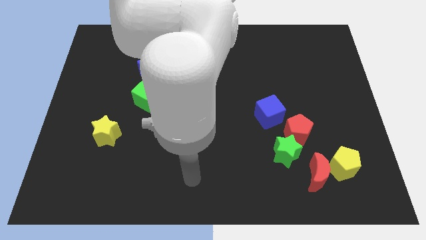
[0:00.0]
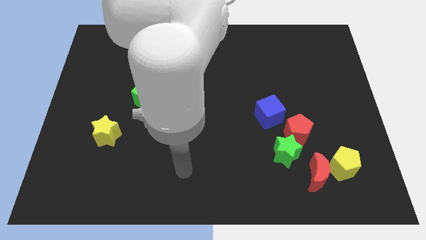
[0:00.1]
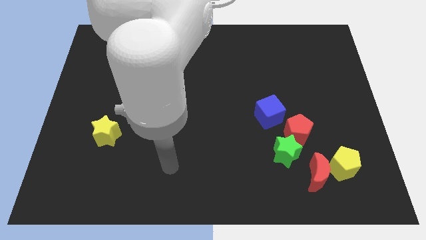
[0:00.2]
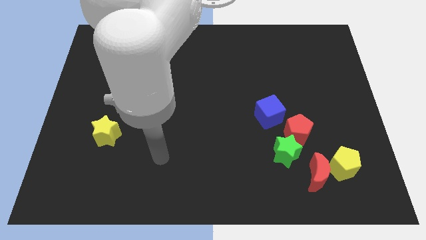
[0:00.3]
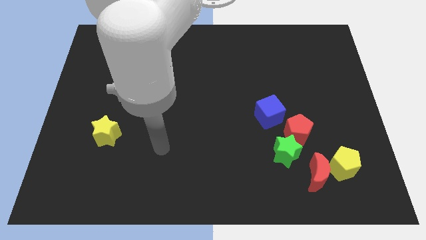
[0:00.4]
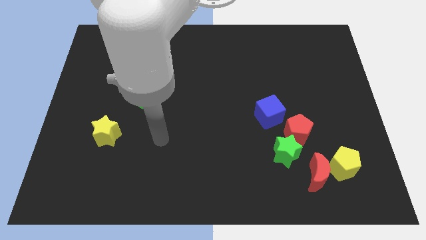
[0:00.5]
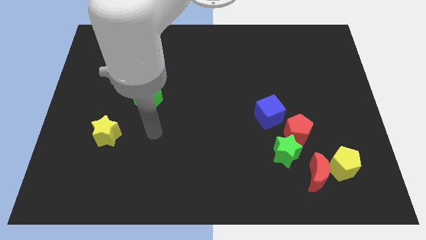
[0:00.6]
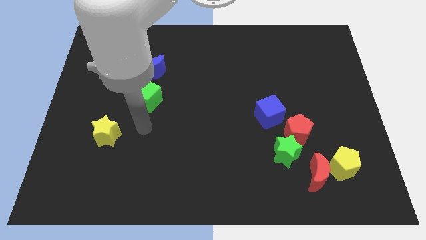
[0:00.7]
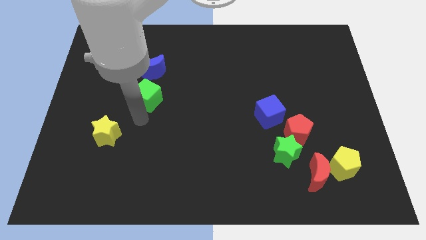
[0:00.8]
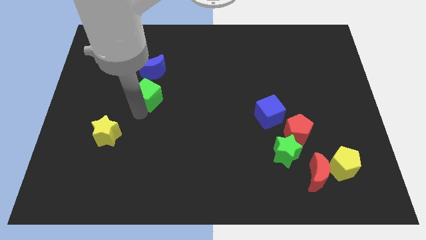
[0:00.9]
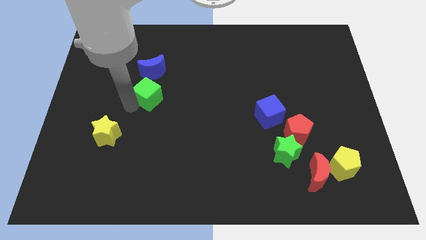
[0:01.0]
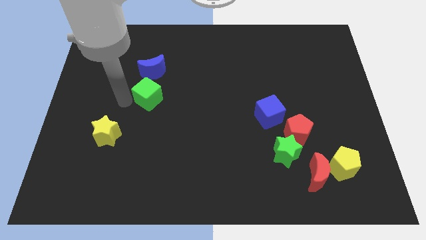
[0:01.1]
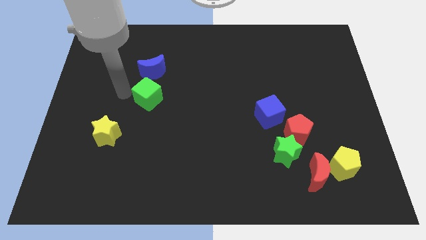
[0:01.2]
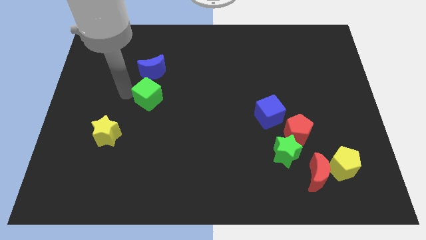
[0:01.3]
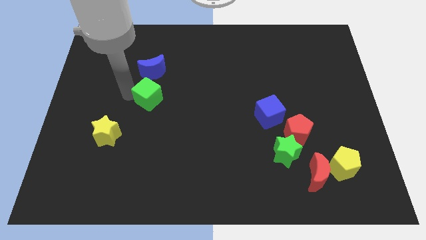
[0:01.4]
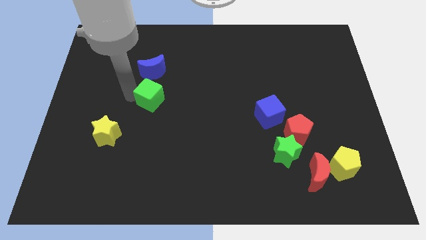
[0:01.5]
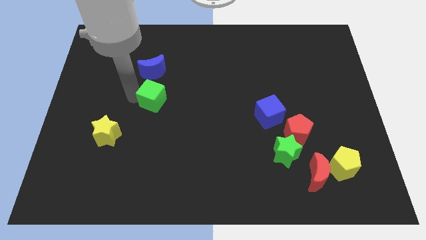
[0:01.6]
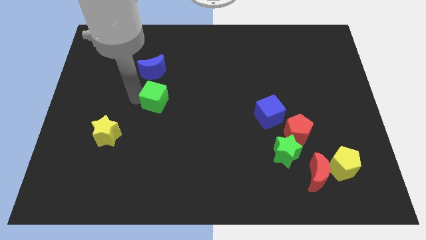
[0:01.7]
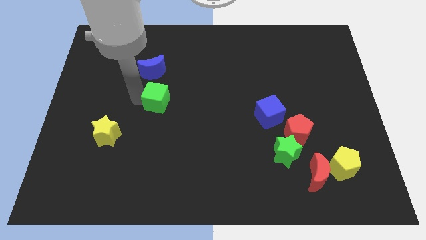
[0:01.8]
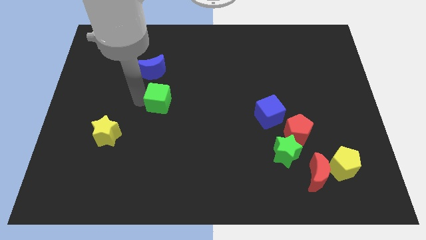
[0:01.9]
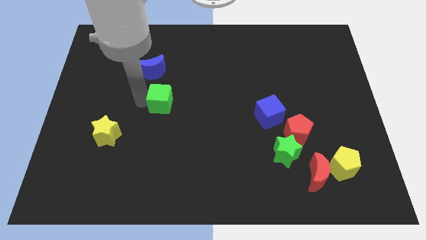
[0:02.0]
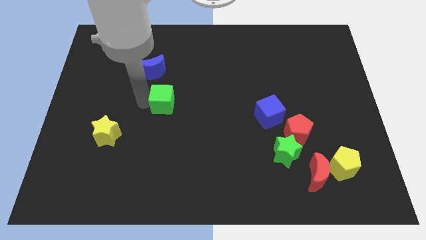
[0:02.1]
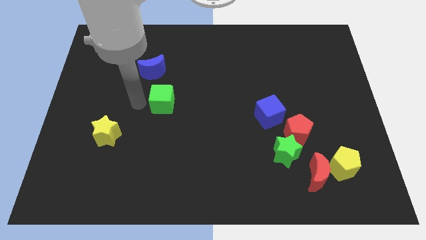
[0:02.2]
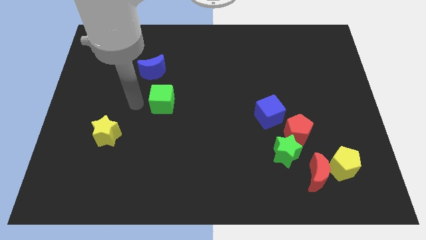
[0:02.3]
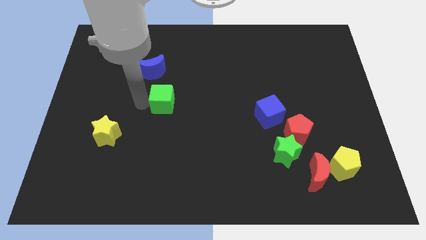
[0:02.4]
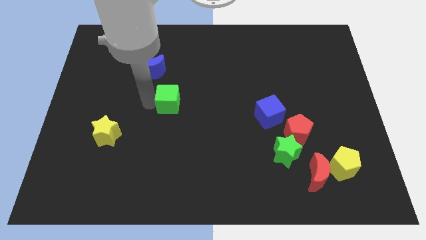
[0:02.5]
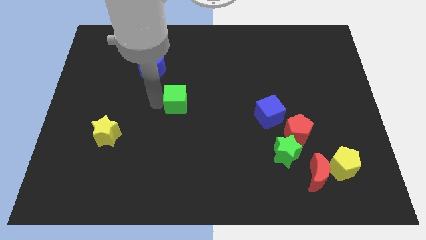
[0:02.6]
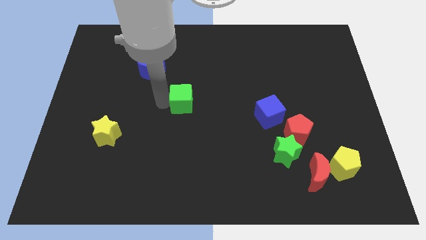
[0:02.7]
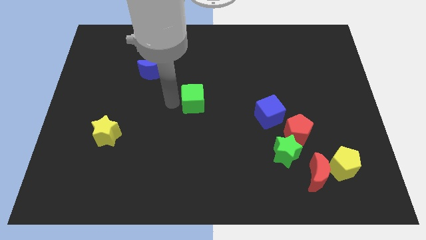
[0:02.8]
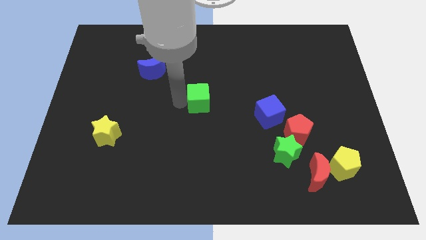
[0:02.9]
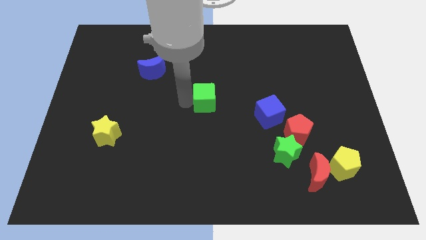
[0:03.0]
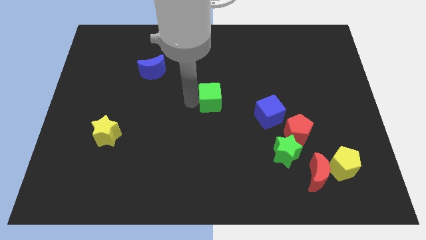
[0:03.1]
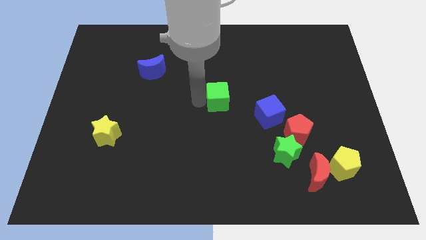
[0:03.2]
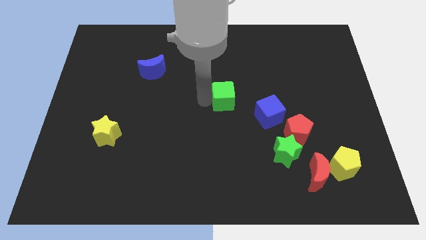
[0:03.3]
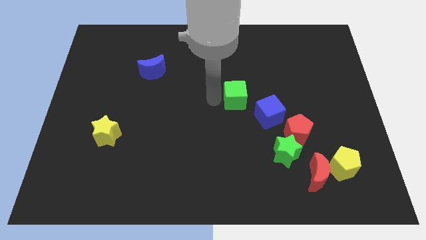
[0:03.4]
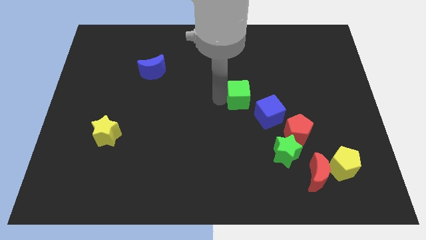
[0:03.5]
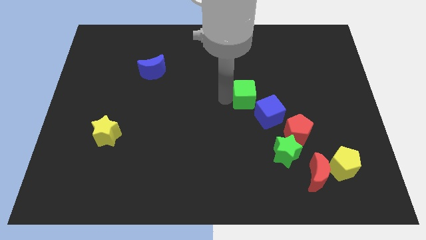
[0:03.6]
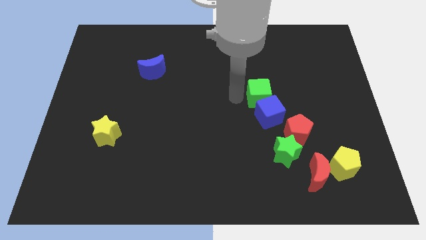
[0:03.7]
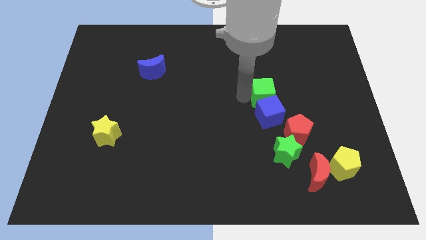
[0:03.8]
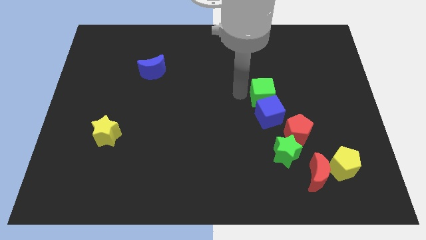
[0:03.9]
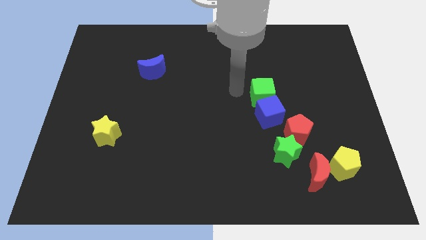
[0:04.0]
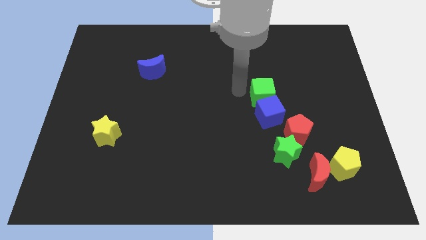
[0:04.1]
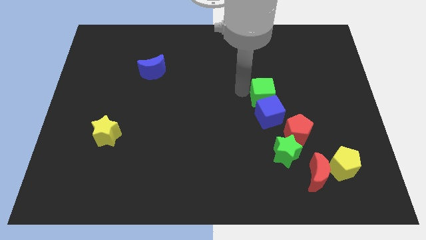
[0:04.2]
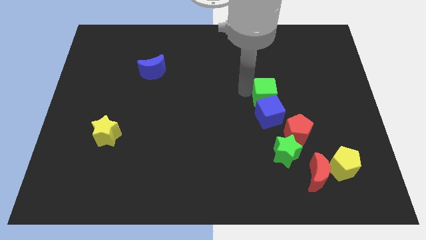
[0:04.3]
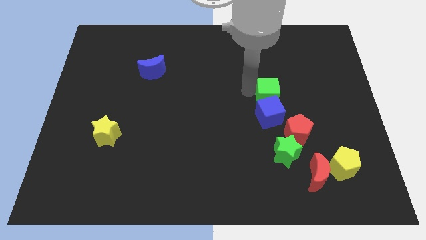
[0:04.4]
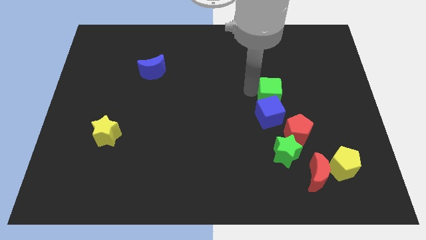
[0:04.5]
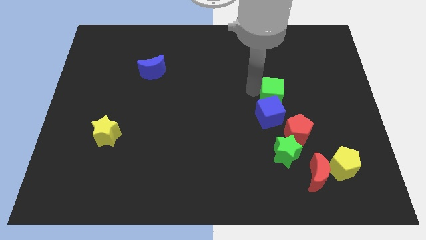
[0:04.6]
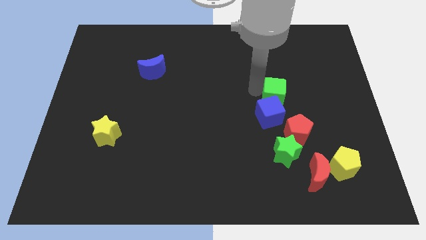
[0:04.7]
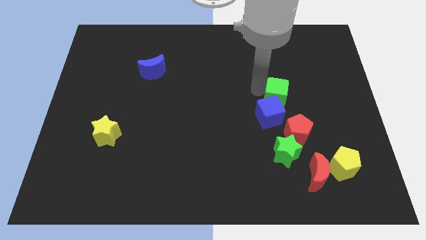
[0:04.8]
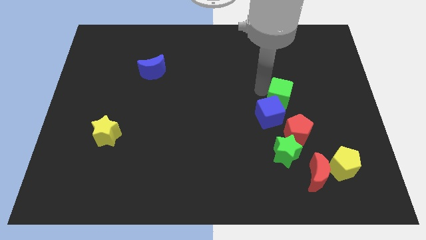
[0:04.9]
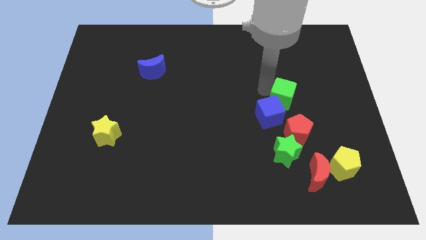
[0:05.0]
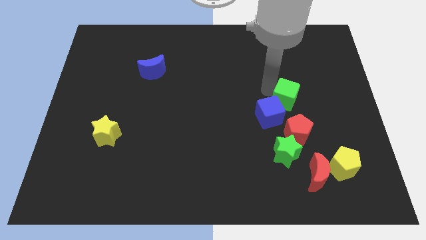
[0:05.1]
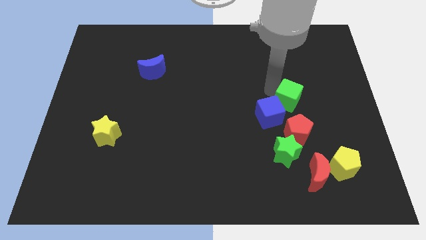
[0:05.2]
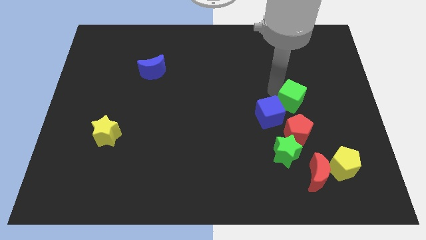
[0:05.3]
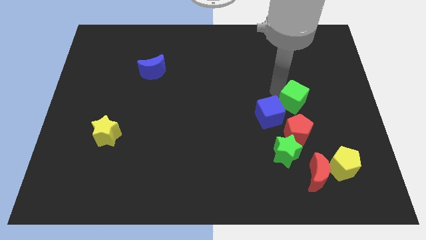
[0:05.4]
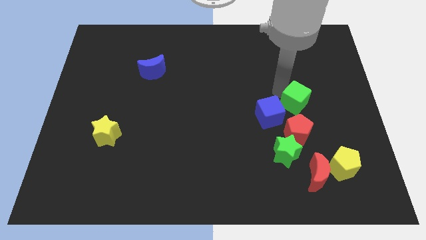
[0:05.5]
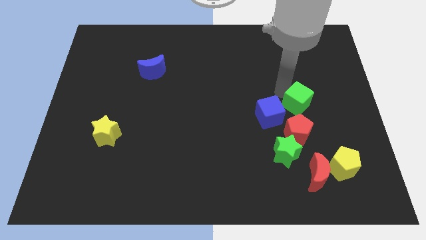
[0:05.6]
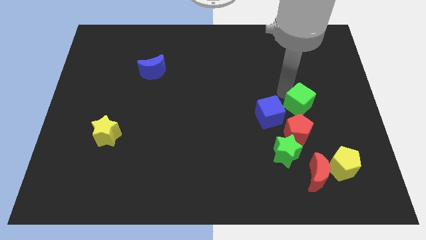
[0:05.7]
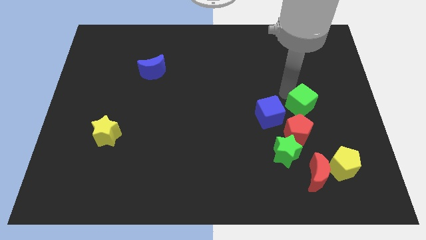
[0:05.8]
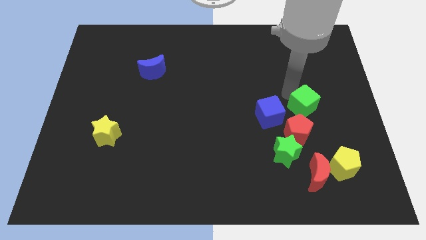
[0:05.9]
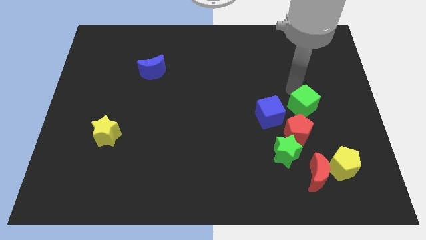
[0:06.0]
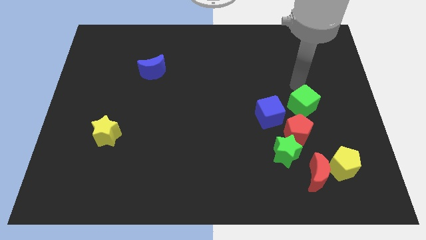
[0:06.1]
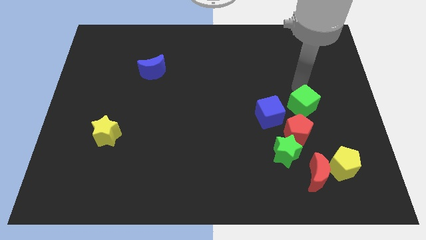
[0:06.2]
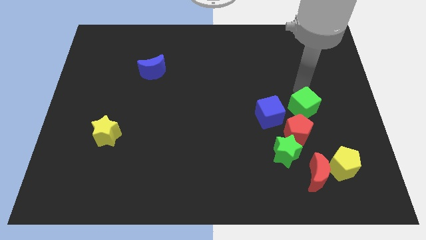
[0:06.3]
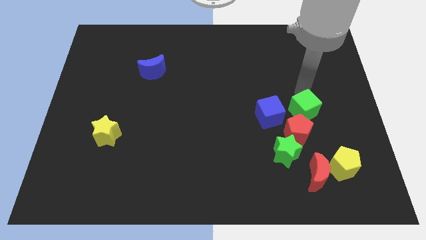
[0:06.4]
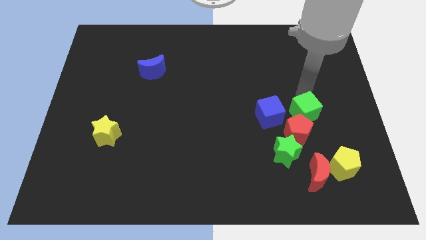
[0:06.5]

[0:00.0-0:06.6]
put the green cube to the top of the red moon

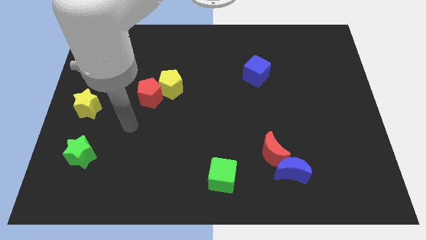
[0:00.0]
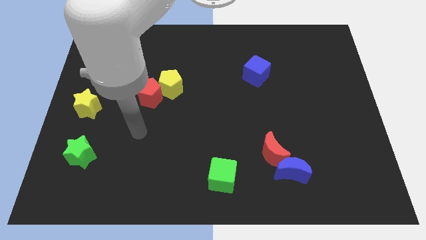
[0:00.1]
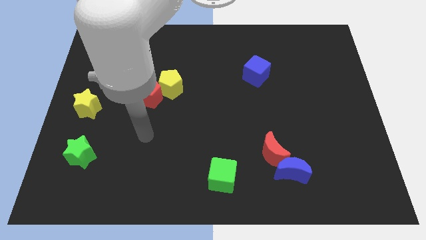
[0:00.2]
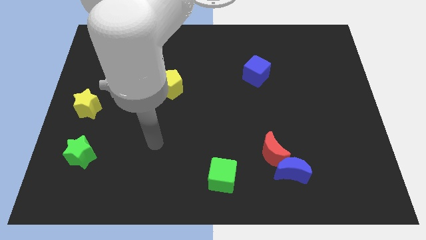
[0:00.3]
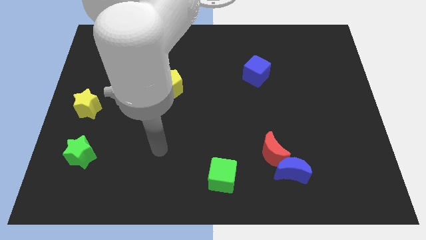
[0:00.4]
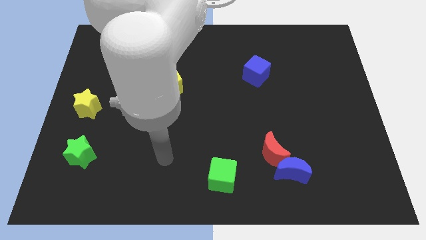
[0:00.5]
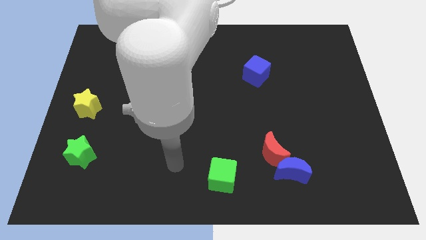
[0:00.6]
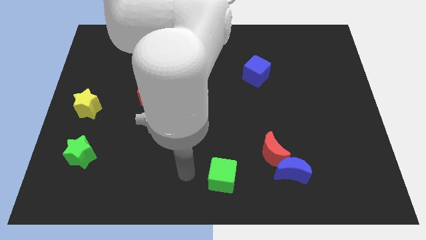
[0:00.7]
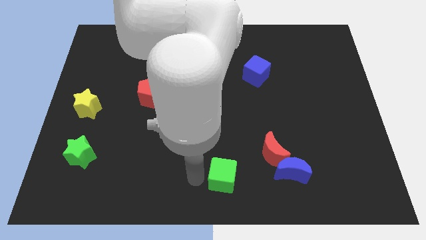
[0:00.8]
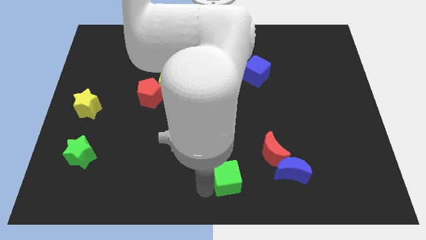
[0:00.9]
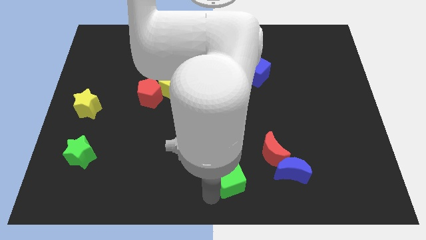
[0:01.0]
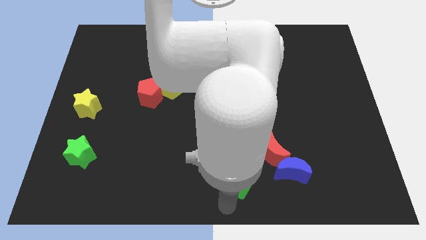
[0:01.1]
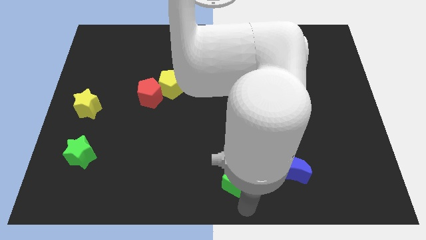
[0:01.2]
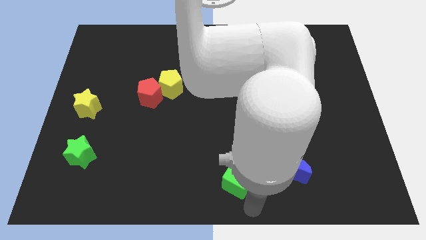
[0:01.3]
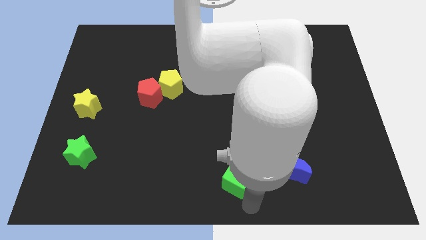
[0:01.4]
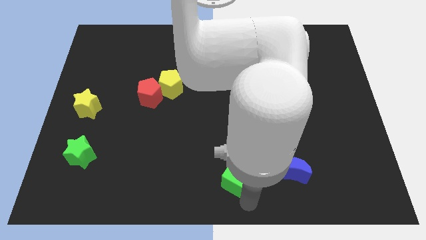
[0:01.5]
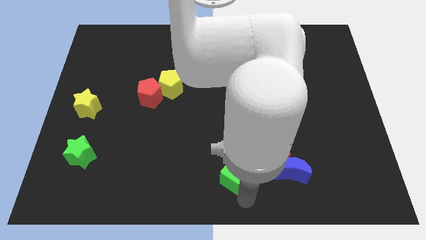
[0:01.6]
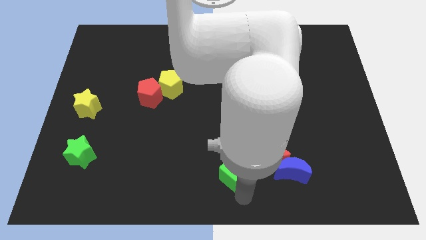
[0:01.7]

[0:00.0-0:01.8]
put the green cube to the left of the red moon
